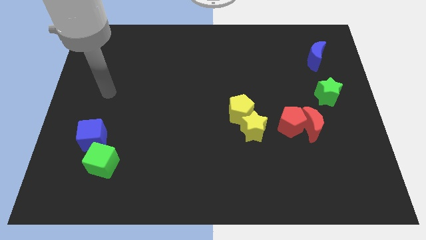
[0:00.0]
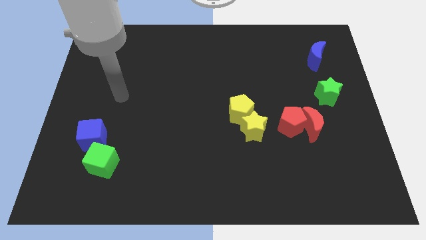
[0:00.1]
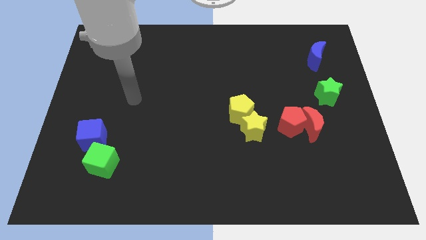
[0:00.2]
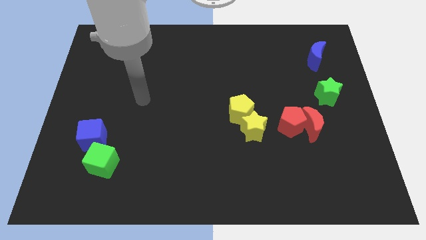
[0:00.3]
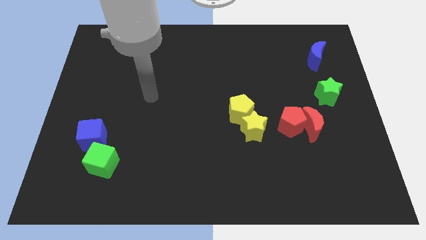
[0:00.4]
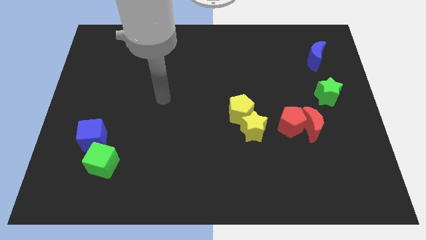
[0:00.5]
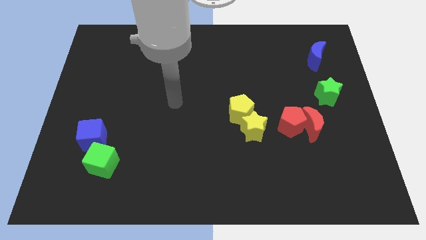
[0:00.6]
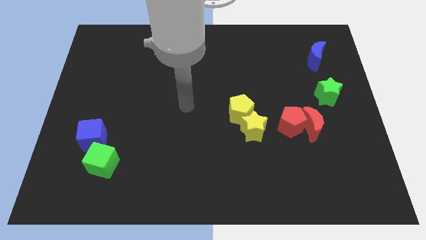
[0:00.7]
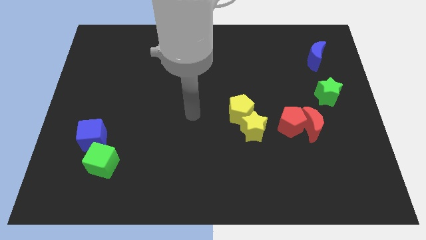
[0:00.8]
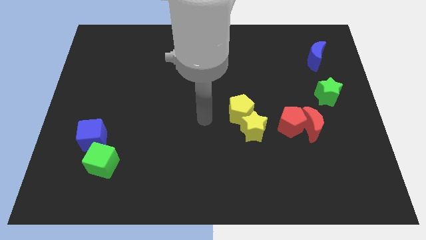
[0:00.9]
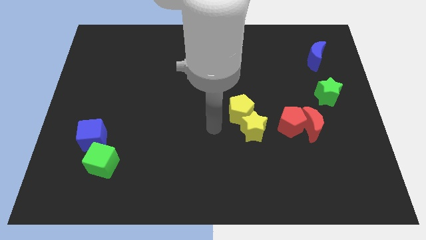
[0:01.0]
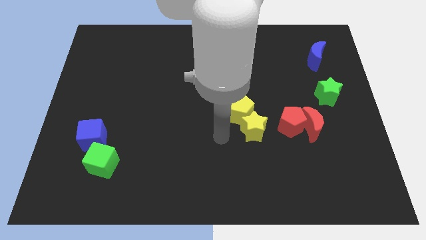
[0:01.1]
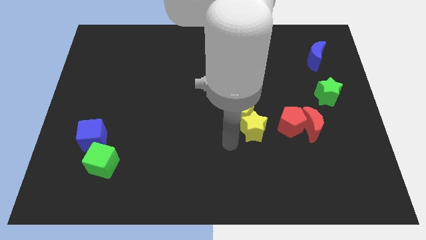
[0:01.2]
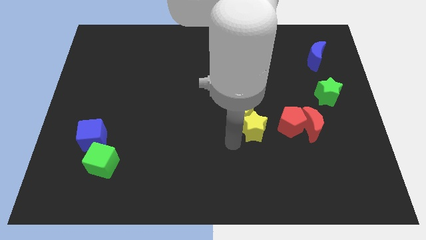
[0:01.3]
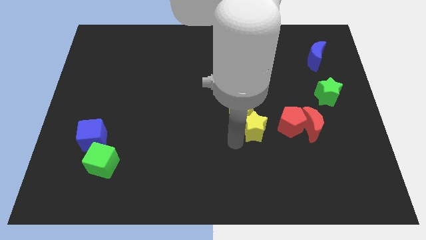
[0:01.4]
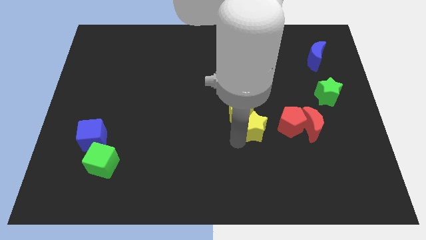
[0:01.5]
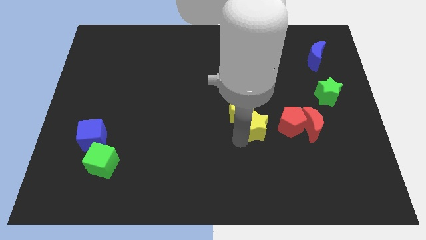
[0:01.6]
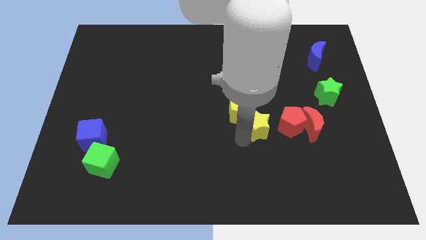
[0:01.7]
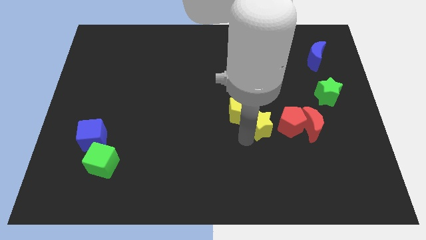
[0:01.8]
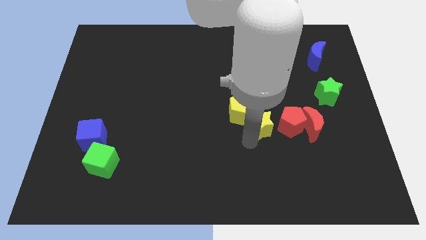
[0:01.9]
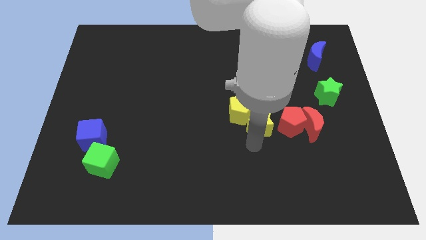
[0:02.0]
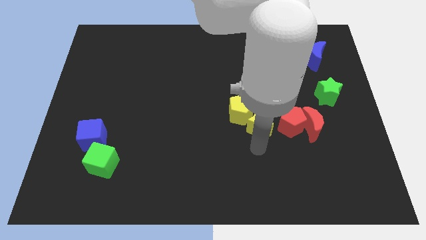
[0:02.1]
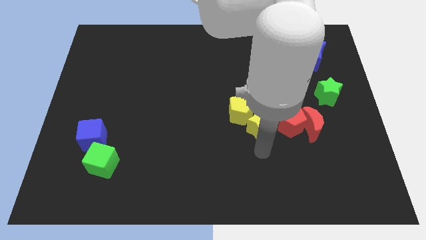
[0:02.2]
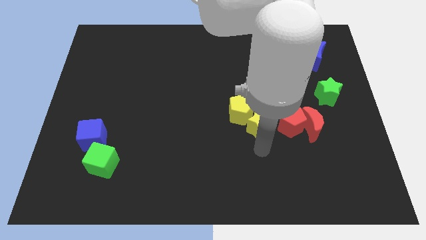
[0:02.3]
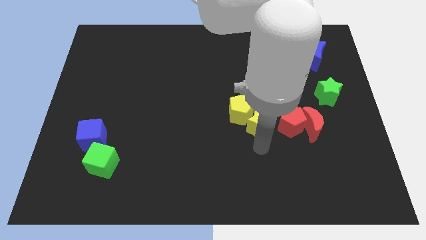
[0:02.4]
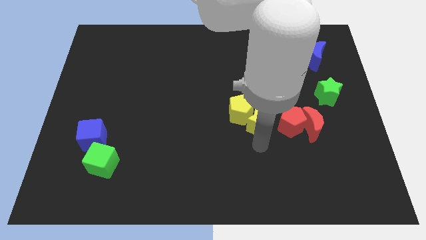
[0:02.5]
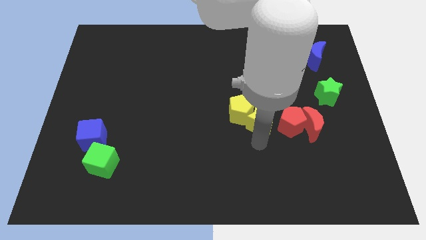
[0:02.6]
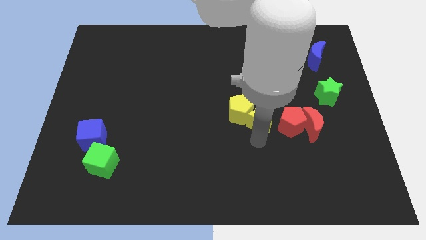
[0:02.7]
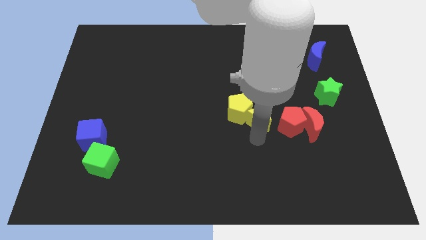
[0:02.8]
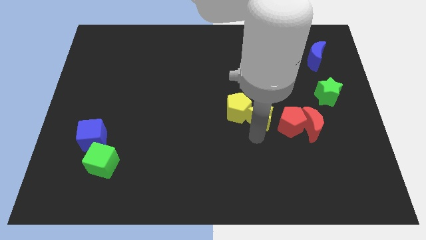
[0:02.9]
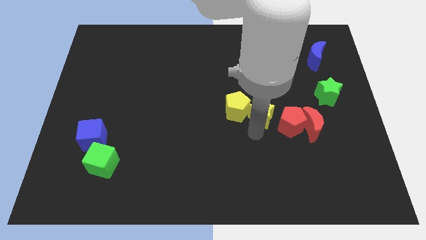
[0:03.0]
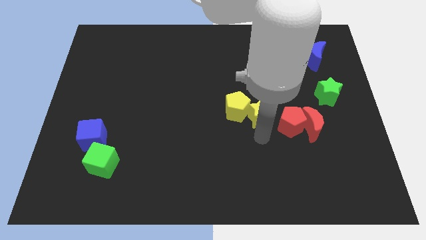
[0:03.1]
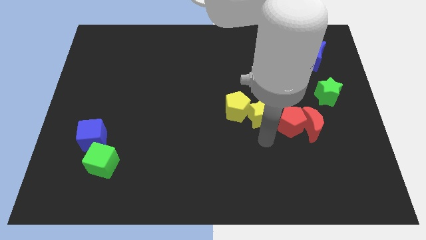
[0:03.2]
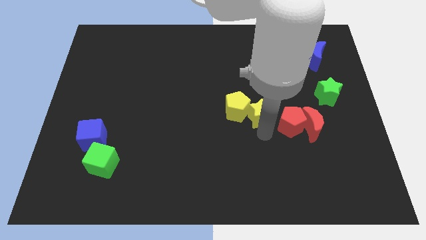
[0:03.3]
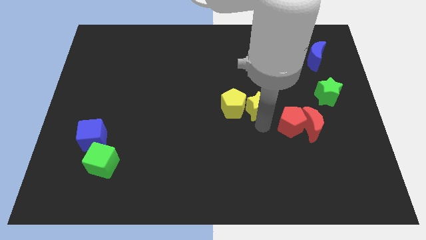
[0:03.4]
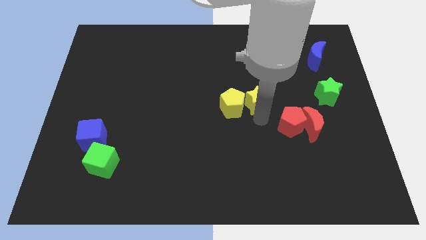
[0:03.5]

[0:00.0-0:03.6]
slightly move the yellow star up

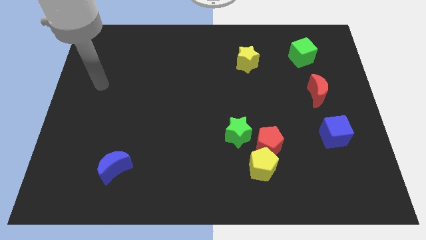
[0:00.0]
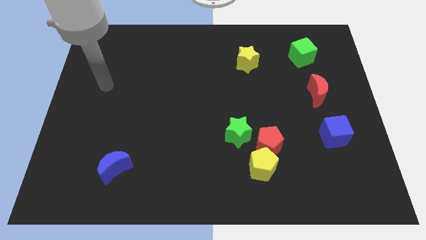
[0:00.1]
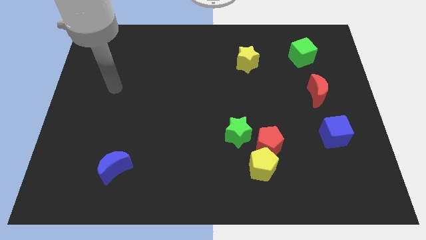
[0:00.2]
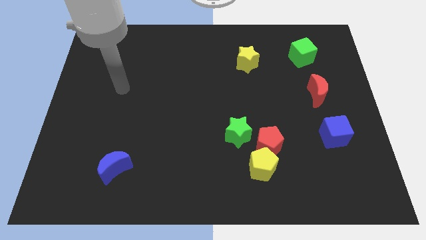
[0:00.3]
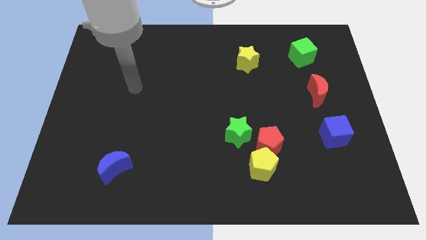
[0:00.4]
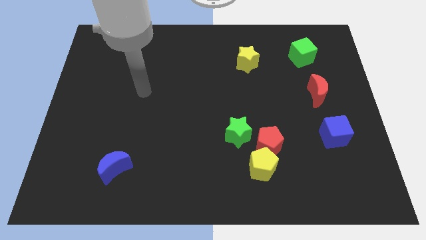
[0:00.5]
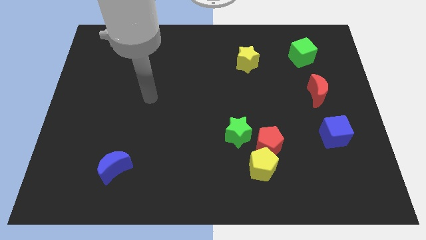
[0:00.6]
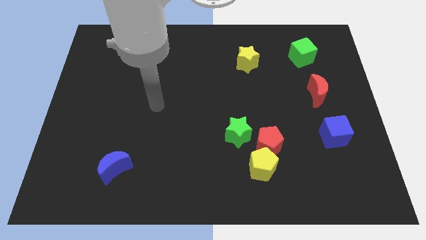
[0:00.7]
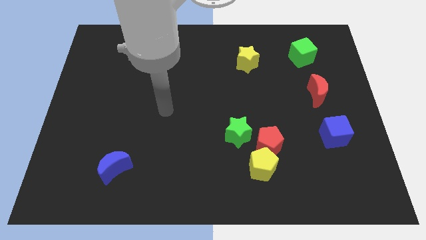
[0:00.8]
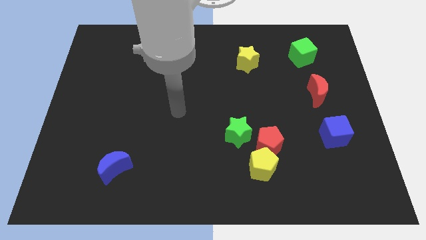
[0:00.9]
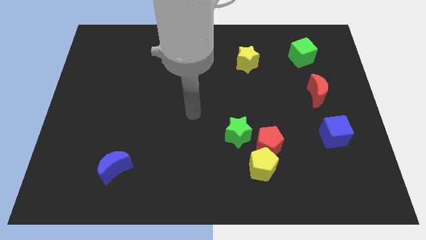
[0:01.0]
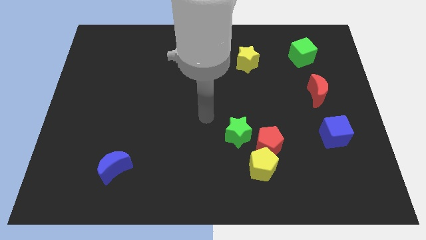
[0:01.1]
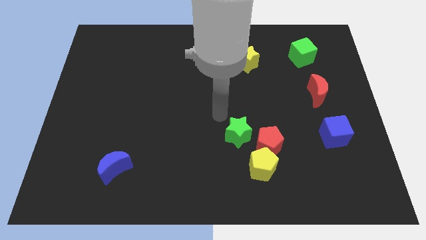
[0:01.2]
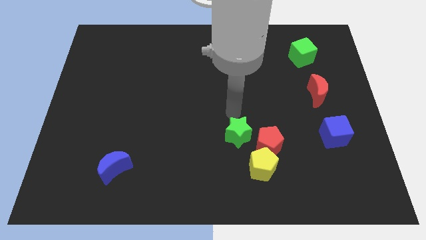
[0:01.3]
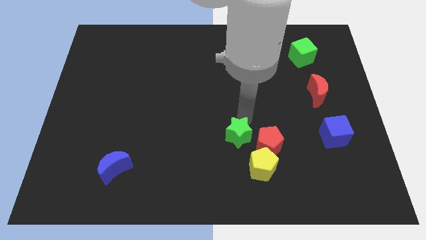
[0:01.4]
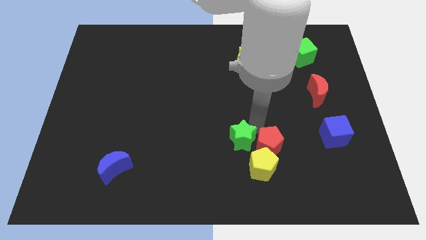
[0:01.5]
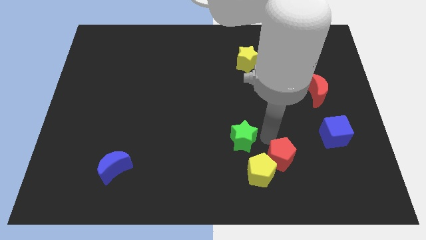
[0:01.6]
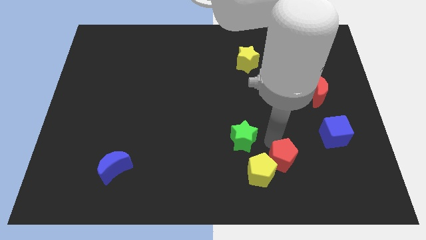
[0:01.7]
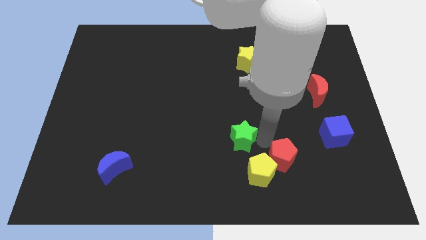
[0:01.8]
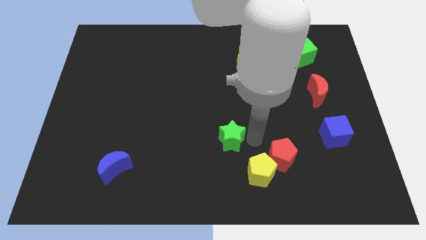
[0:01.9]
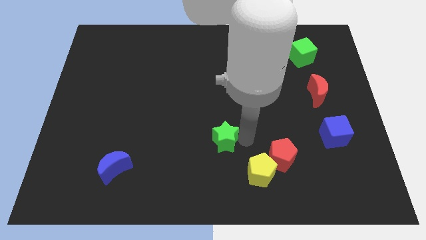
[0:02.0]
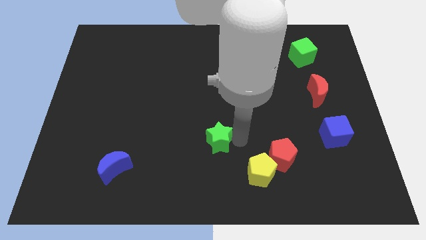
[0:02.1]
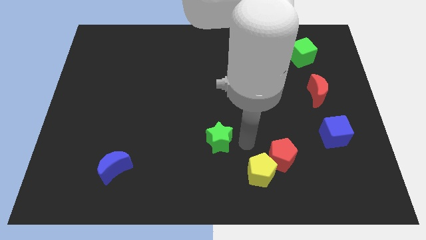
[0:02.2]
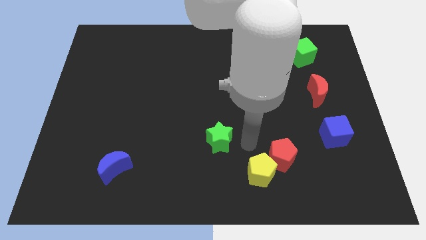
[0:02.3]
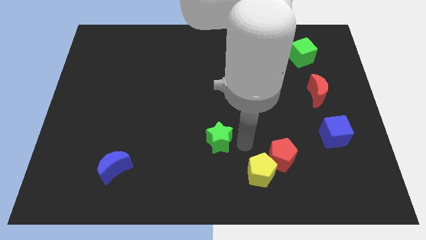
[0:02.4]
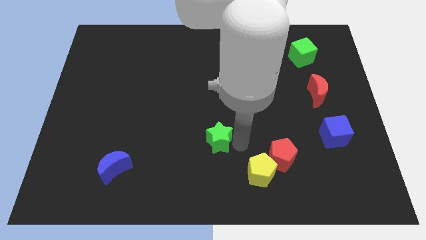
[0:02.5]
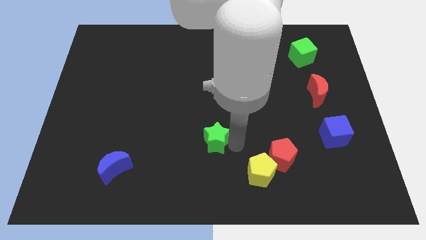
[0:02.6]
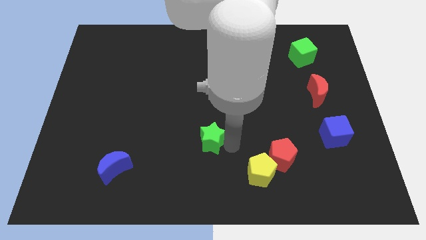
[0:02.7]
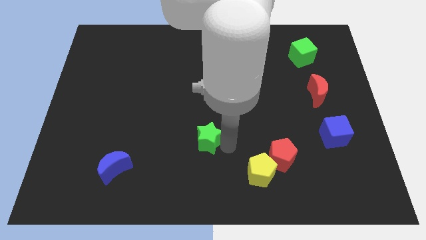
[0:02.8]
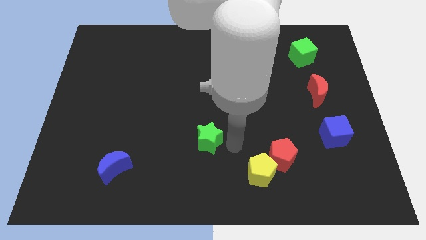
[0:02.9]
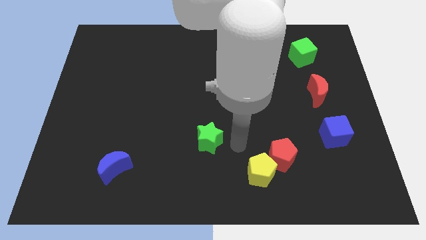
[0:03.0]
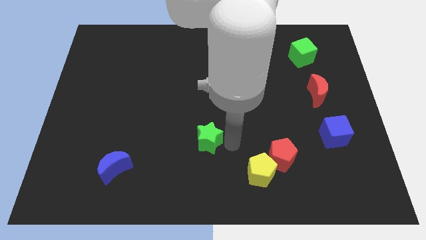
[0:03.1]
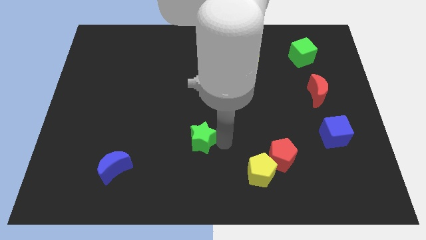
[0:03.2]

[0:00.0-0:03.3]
slightly move the green star left

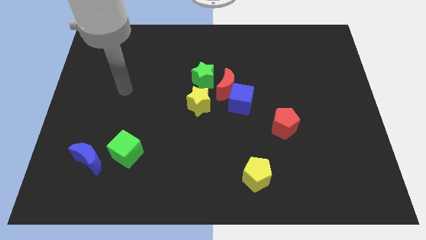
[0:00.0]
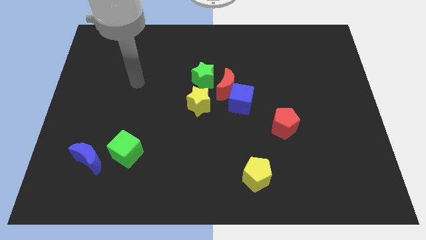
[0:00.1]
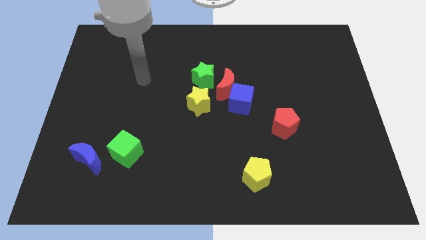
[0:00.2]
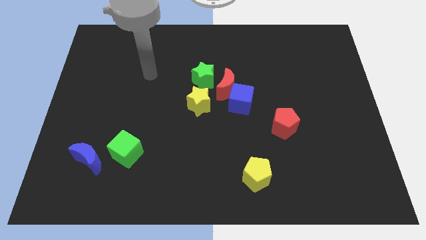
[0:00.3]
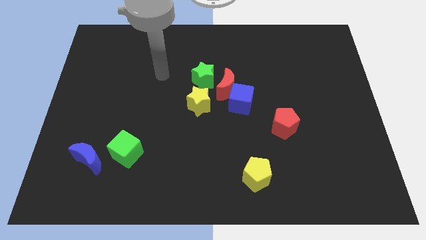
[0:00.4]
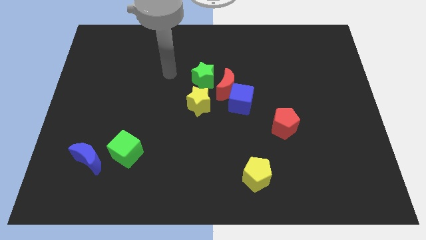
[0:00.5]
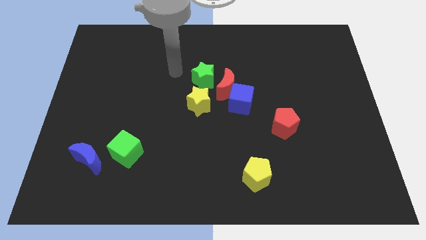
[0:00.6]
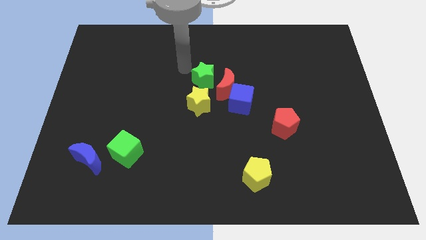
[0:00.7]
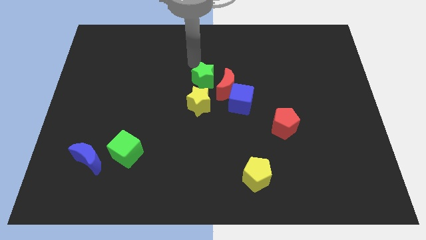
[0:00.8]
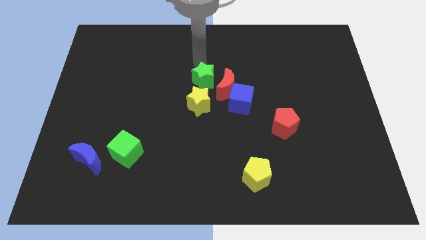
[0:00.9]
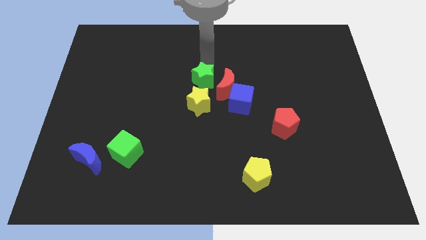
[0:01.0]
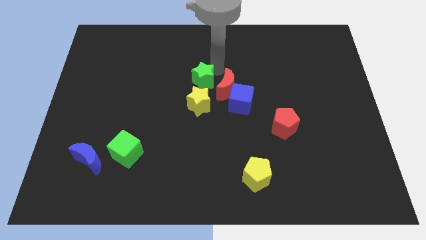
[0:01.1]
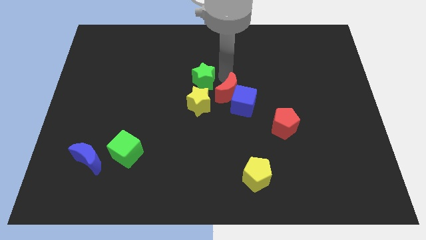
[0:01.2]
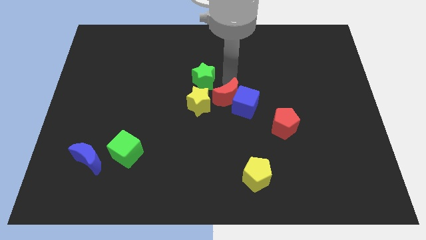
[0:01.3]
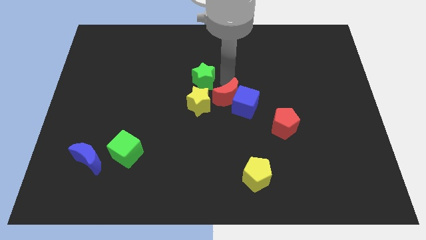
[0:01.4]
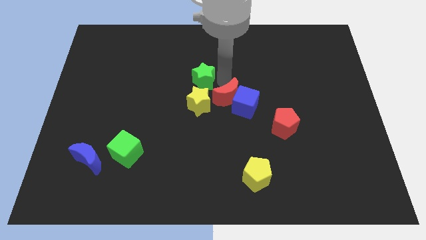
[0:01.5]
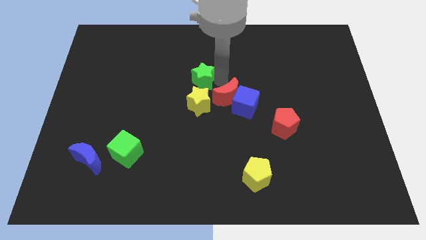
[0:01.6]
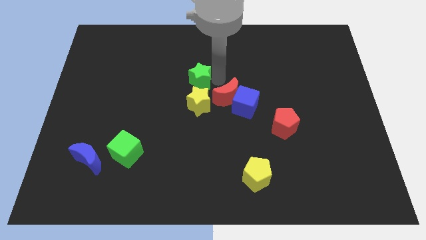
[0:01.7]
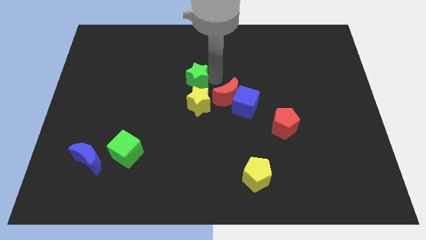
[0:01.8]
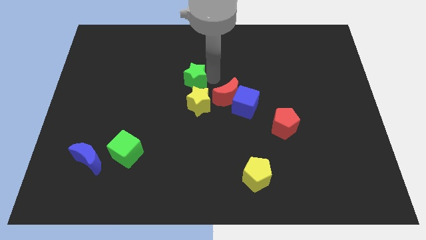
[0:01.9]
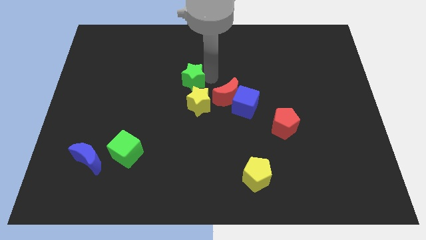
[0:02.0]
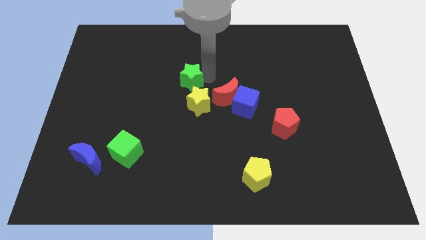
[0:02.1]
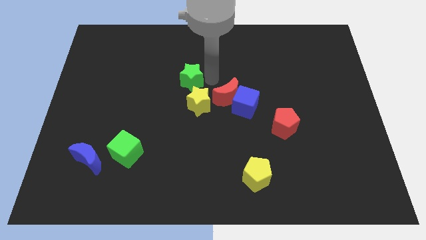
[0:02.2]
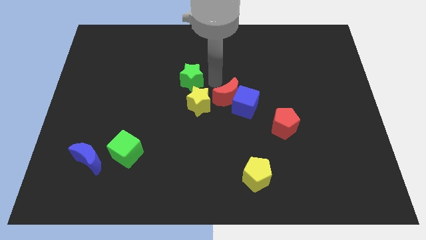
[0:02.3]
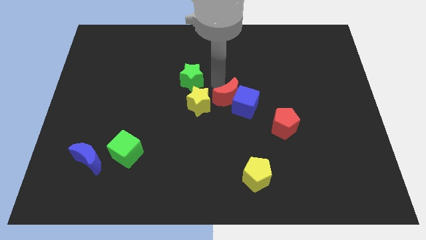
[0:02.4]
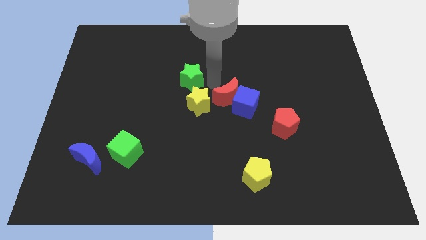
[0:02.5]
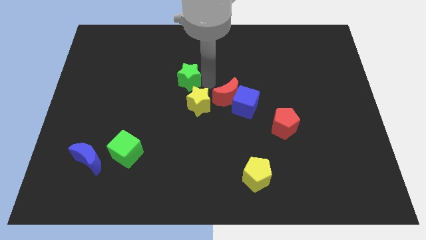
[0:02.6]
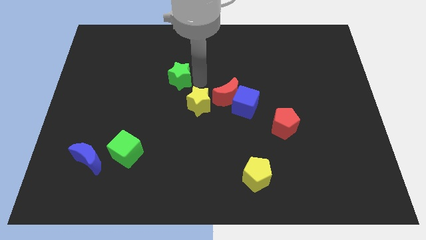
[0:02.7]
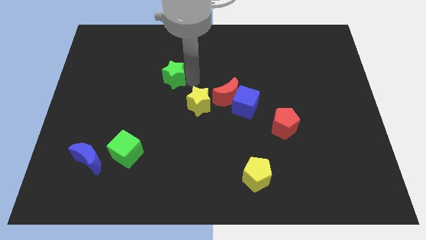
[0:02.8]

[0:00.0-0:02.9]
slightly slide the green star left
